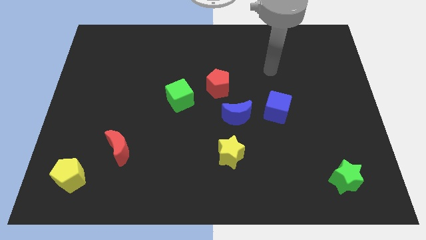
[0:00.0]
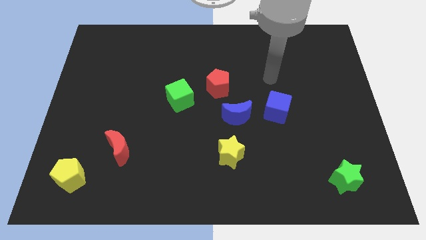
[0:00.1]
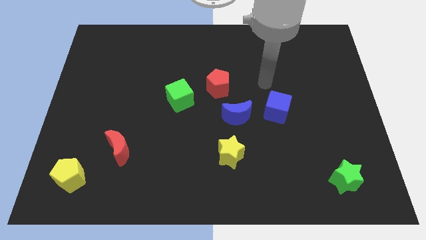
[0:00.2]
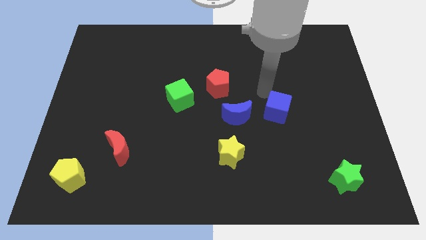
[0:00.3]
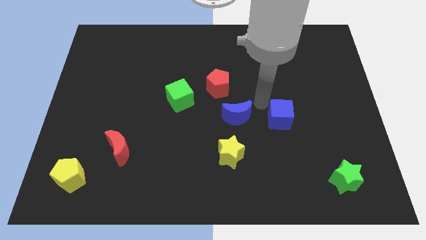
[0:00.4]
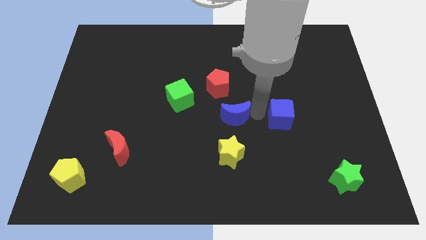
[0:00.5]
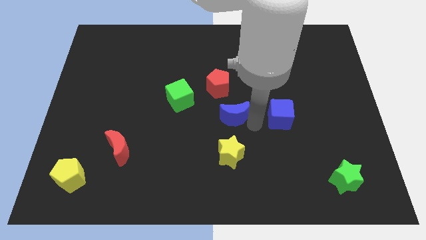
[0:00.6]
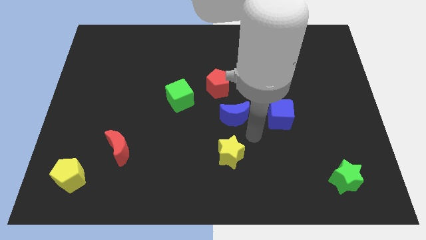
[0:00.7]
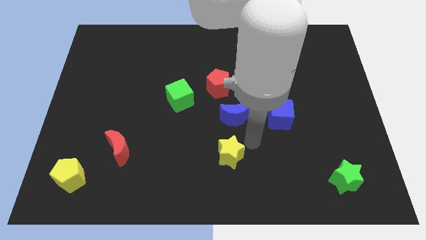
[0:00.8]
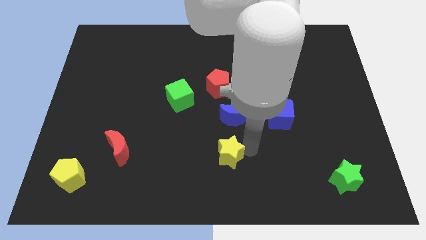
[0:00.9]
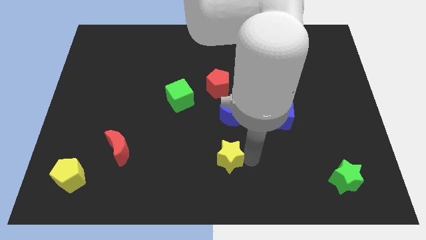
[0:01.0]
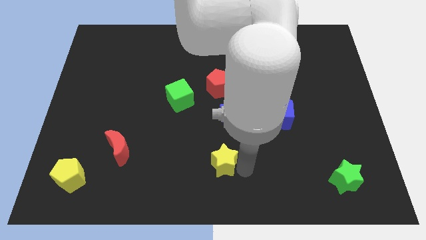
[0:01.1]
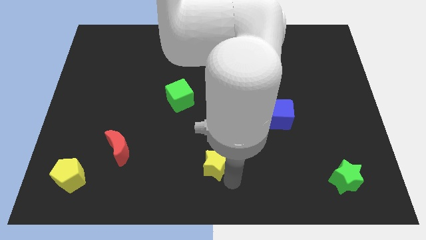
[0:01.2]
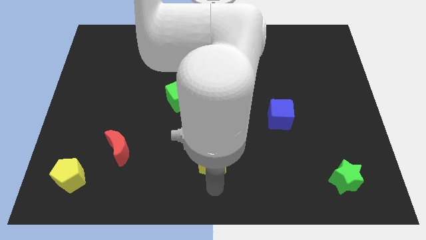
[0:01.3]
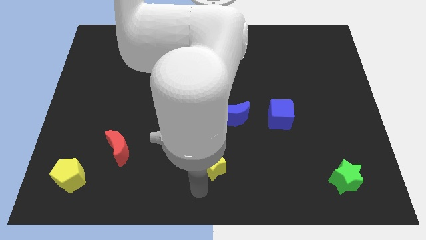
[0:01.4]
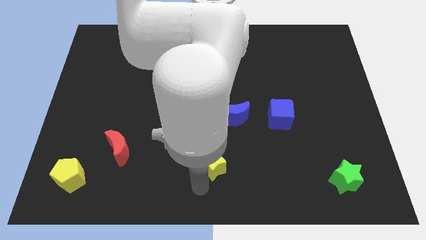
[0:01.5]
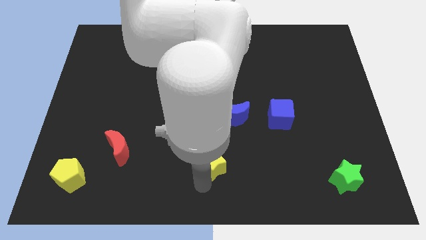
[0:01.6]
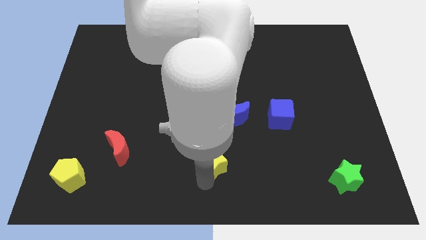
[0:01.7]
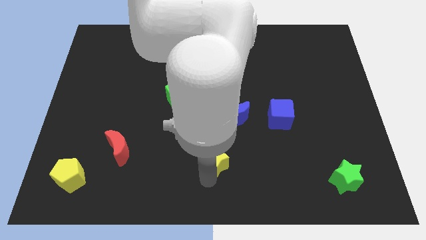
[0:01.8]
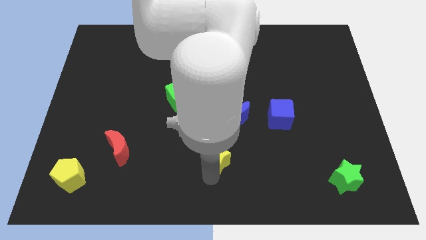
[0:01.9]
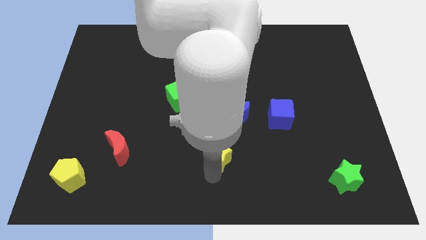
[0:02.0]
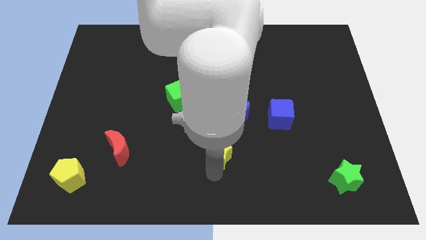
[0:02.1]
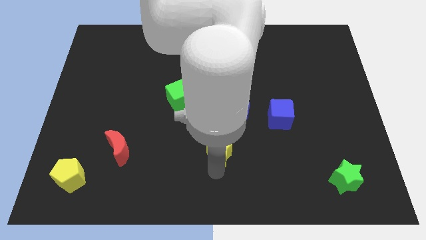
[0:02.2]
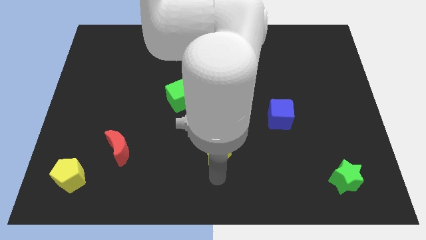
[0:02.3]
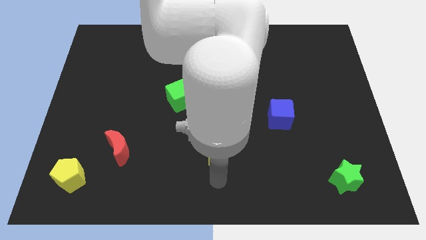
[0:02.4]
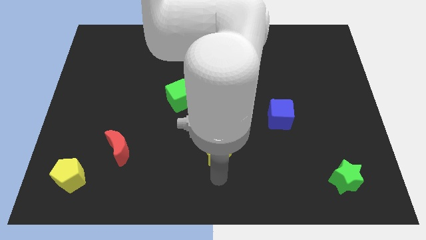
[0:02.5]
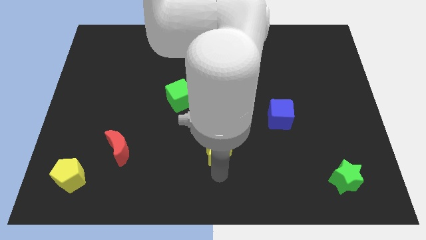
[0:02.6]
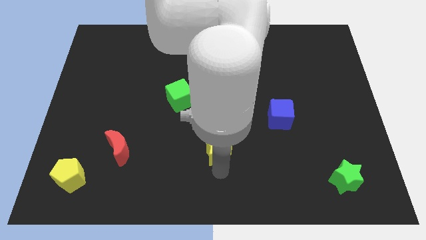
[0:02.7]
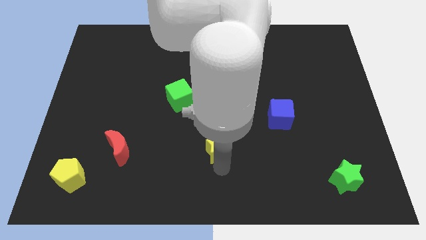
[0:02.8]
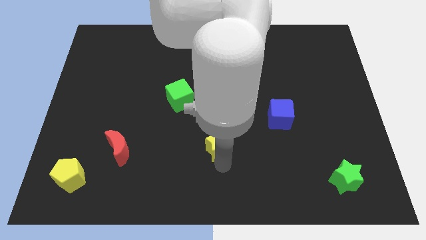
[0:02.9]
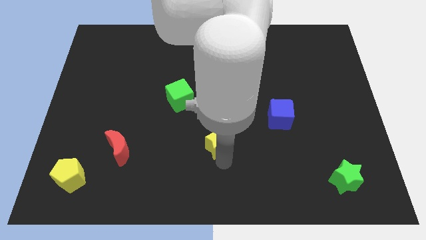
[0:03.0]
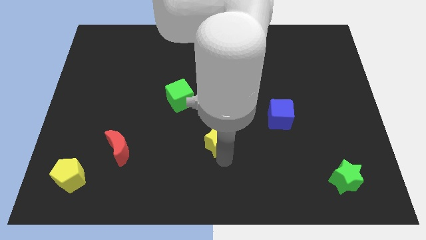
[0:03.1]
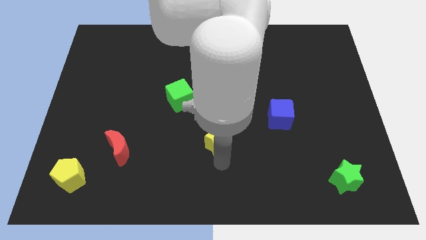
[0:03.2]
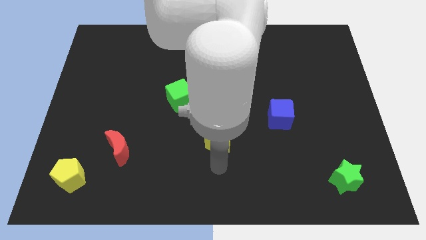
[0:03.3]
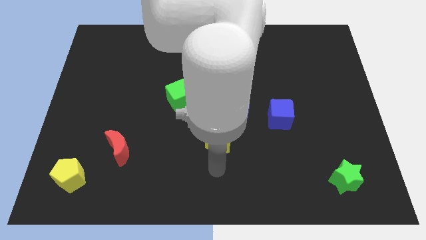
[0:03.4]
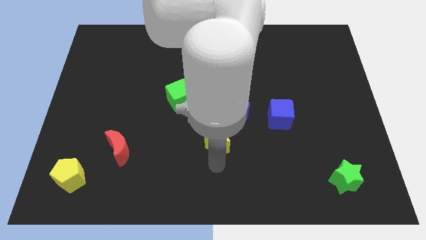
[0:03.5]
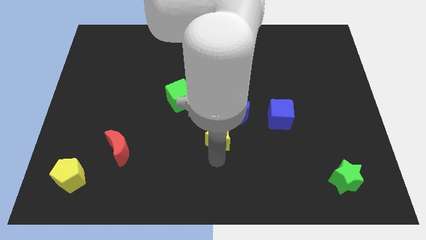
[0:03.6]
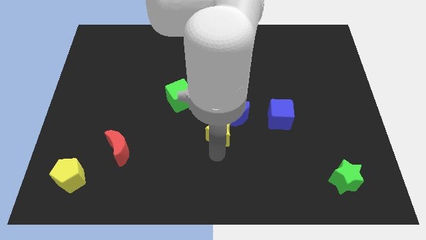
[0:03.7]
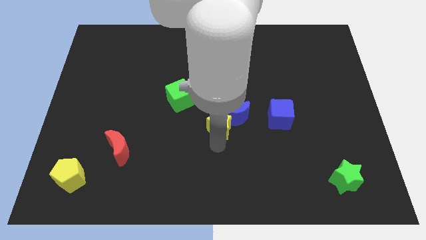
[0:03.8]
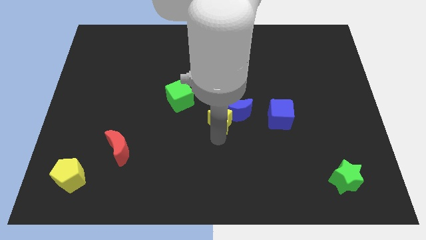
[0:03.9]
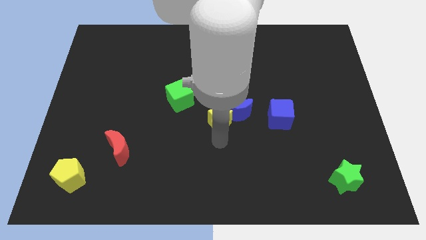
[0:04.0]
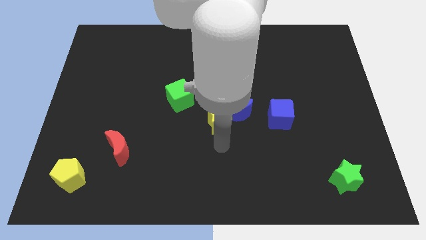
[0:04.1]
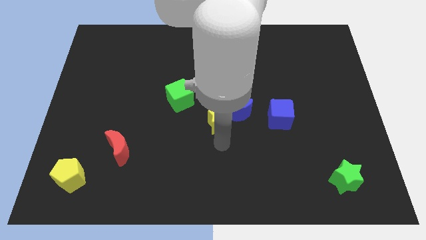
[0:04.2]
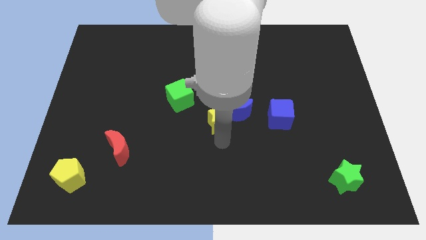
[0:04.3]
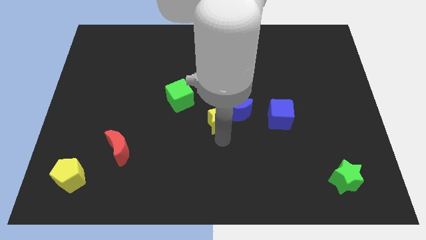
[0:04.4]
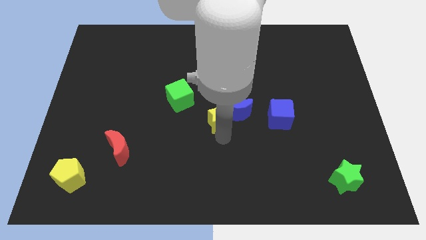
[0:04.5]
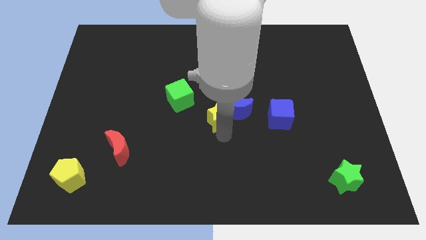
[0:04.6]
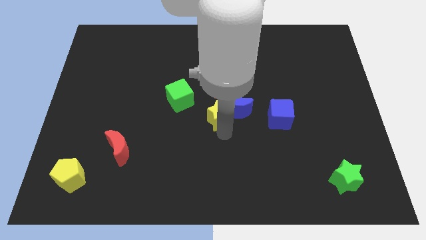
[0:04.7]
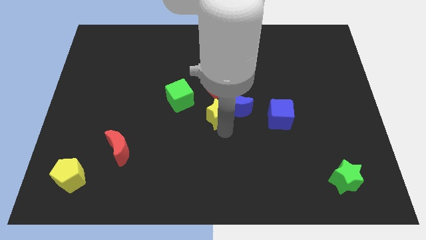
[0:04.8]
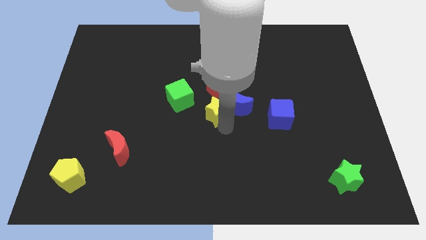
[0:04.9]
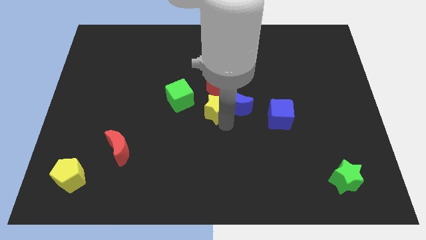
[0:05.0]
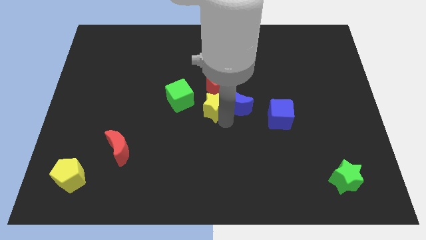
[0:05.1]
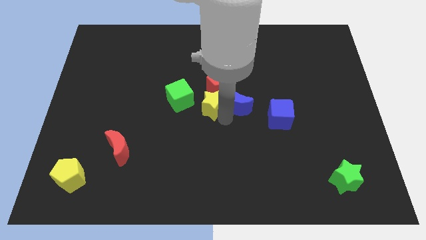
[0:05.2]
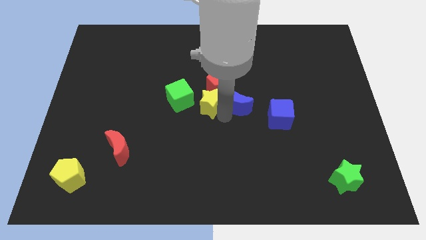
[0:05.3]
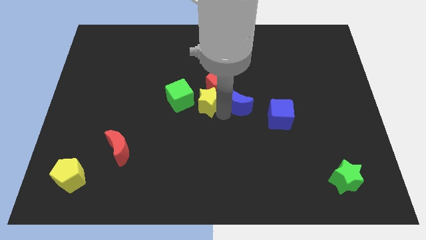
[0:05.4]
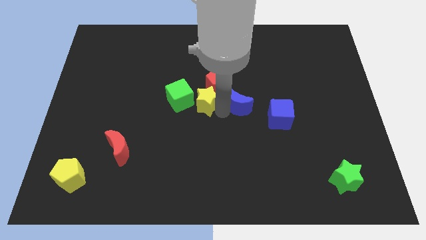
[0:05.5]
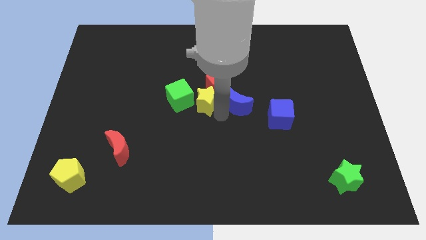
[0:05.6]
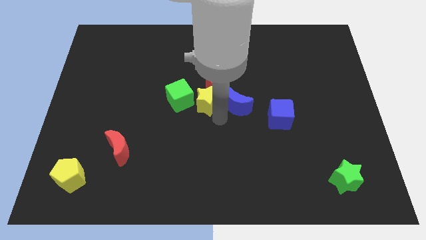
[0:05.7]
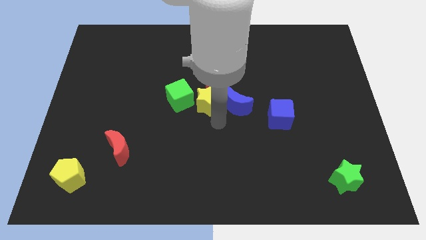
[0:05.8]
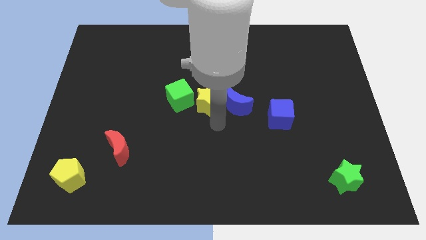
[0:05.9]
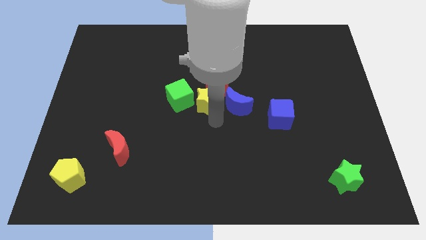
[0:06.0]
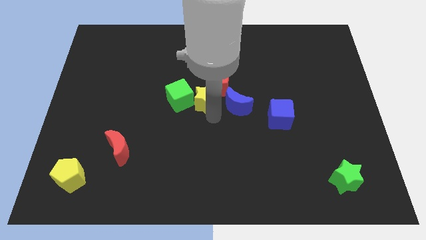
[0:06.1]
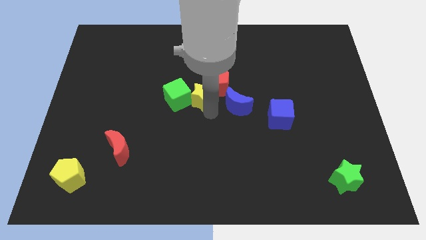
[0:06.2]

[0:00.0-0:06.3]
push the yellow star left of the red pentagon
